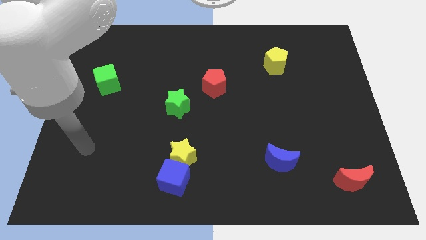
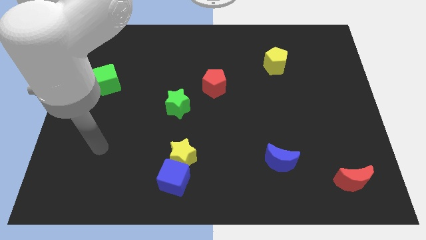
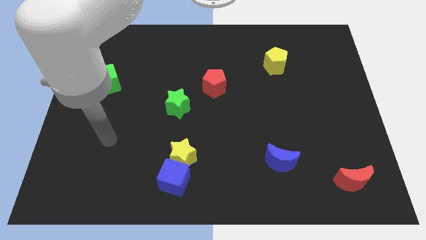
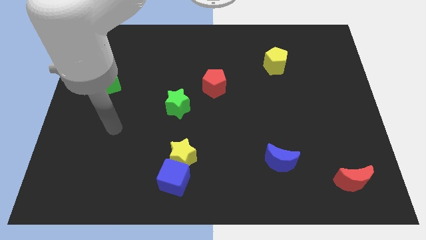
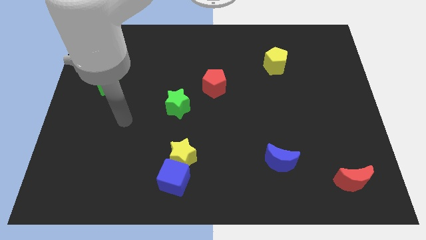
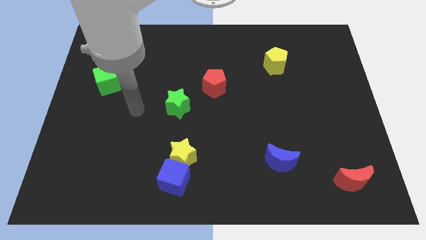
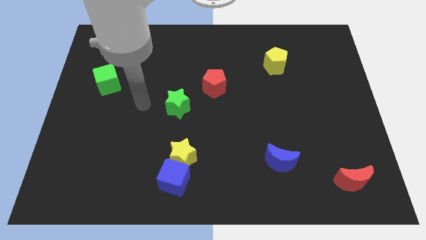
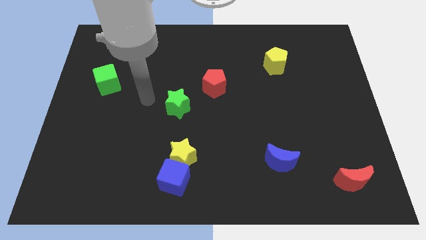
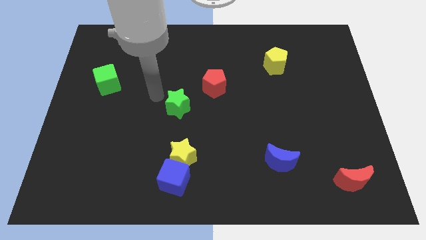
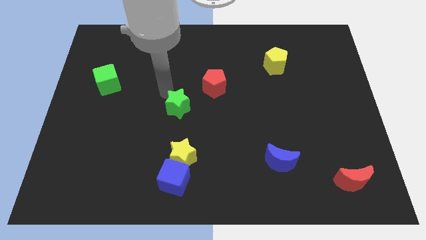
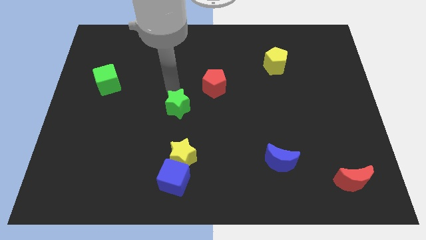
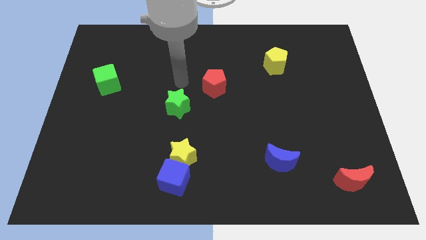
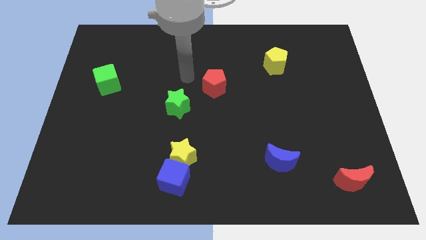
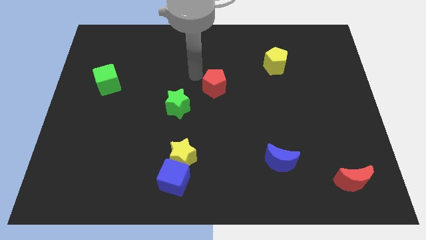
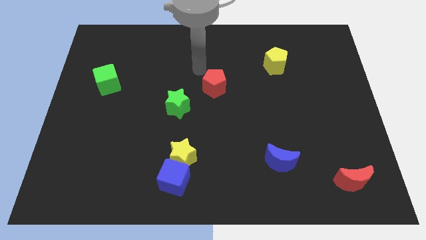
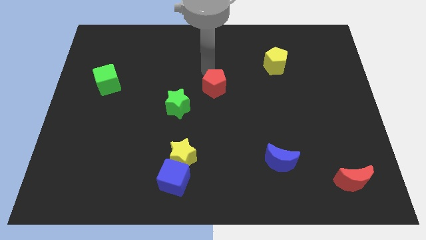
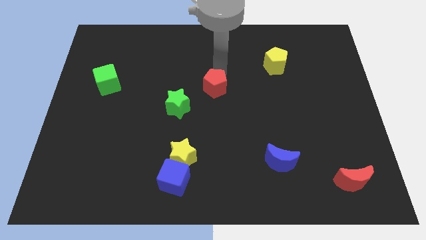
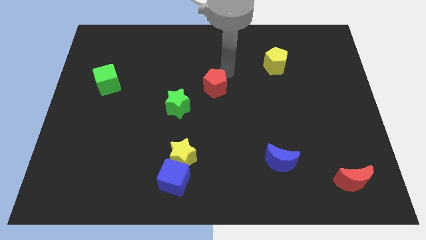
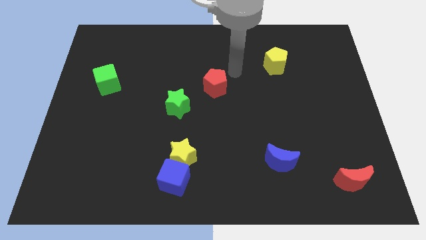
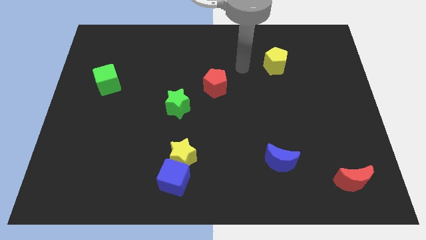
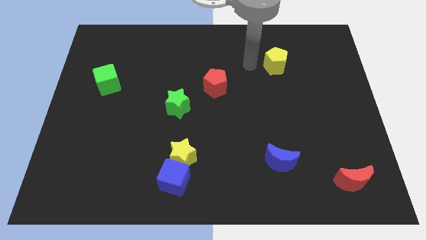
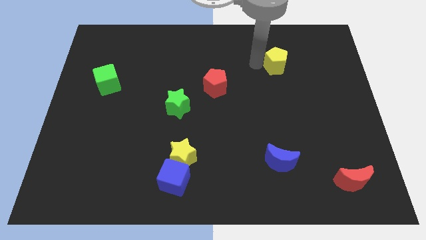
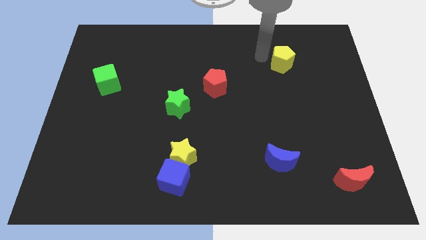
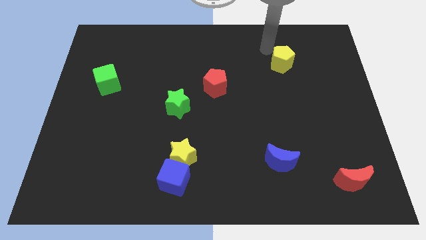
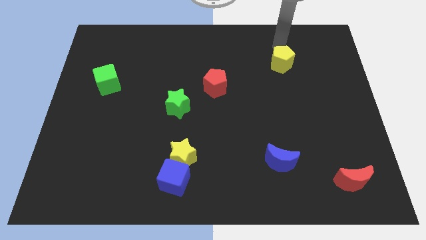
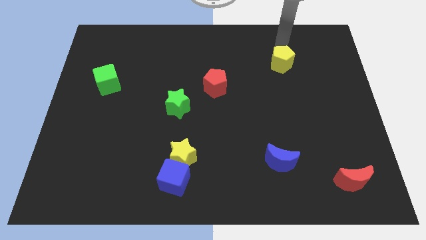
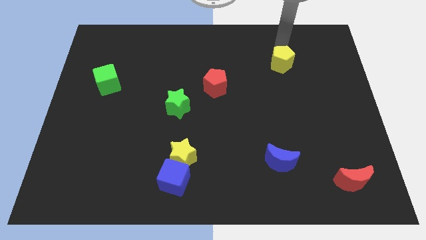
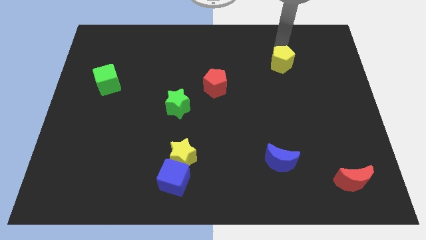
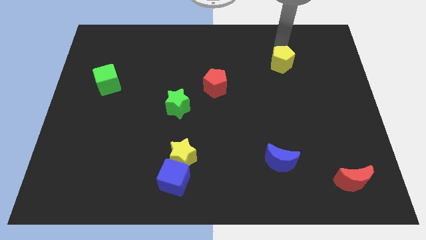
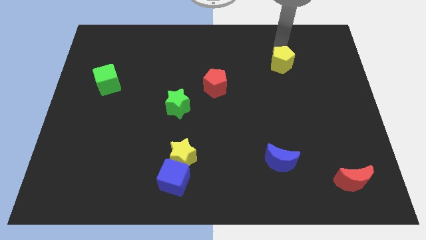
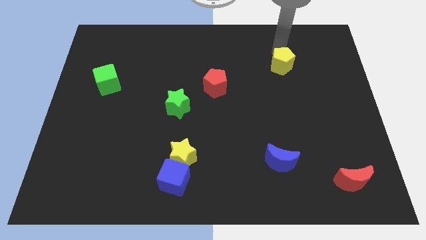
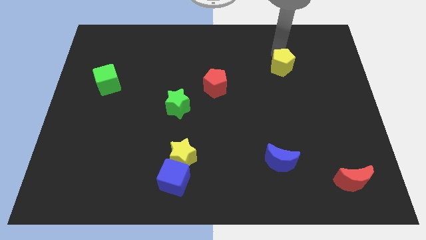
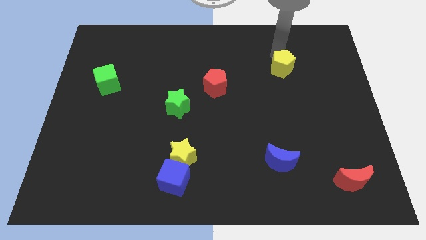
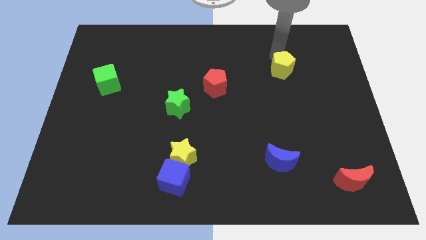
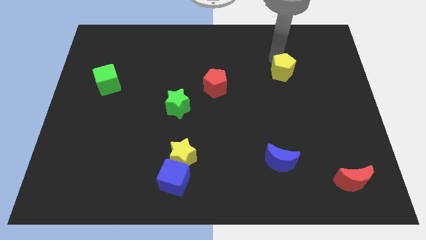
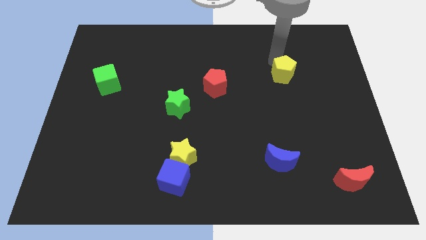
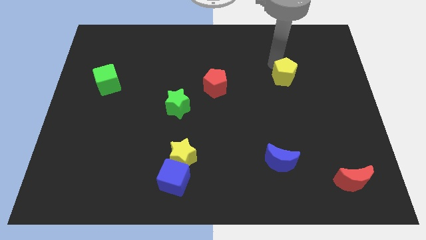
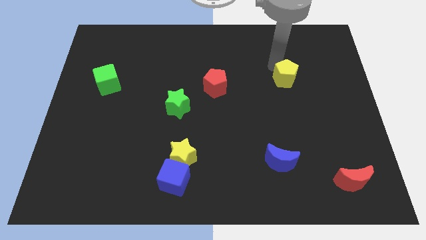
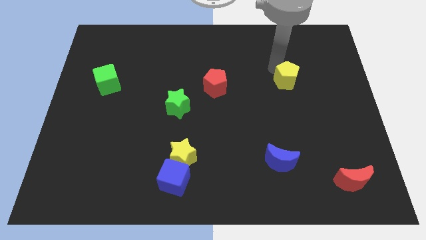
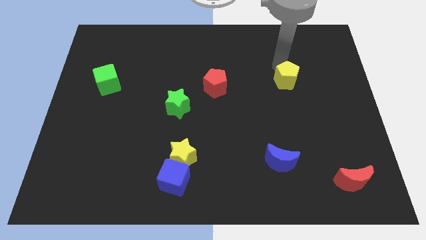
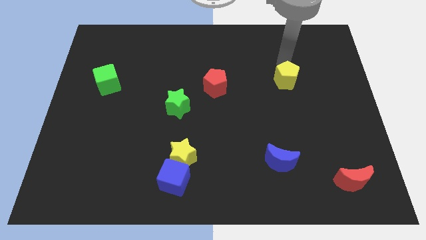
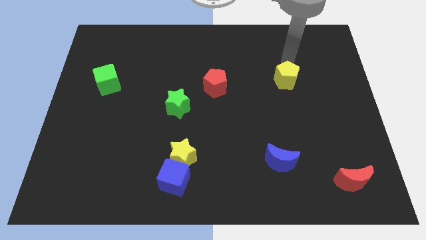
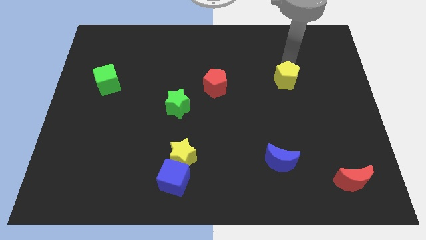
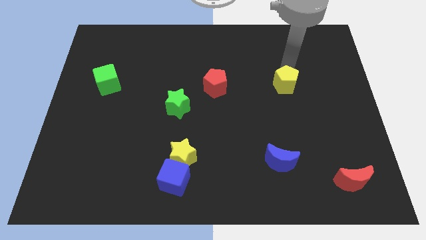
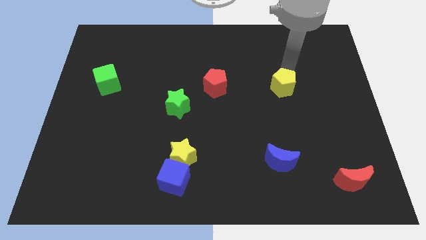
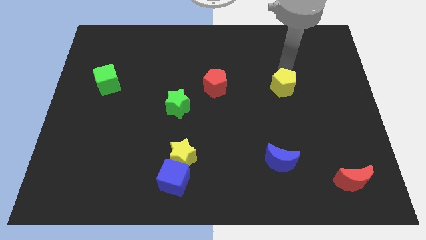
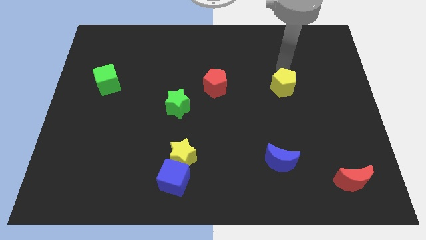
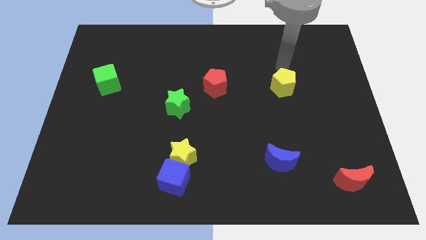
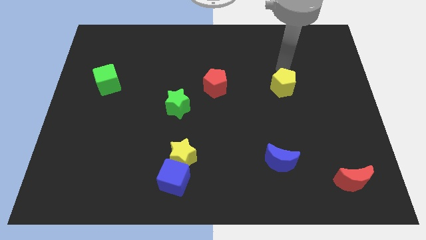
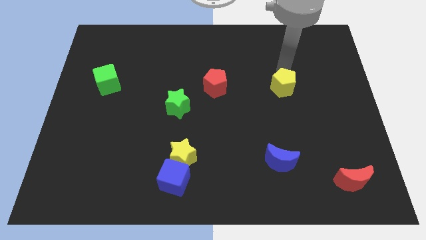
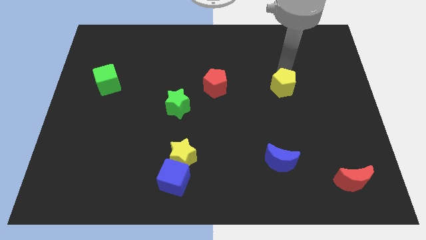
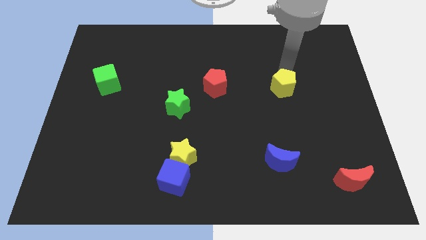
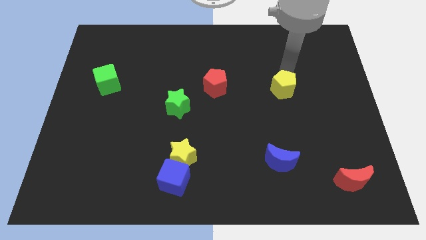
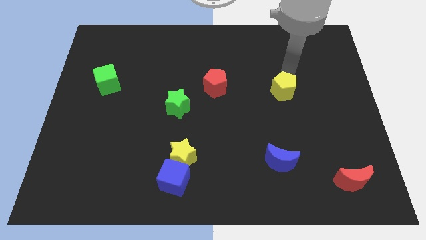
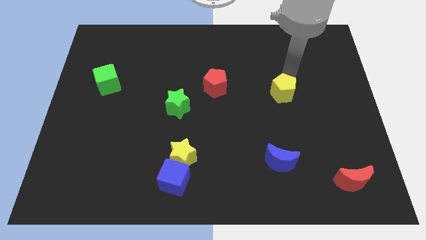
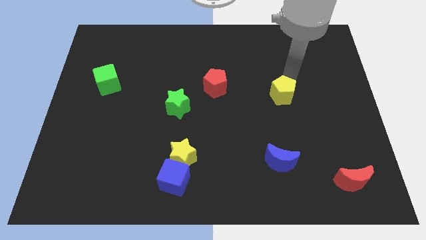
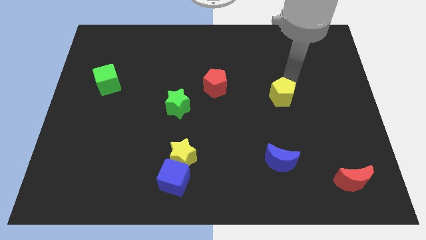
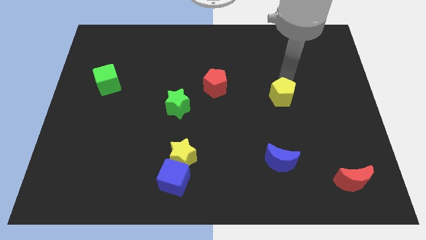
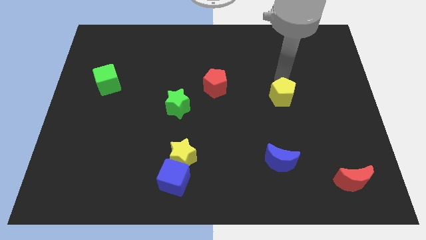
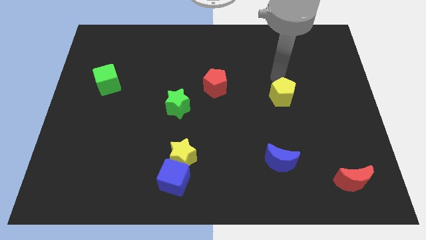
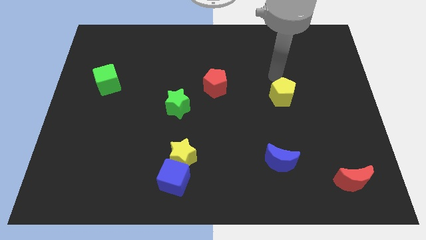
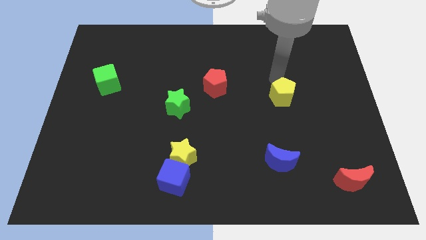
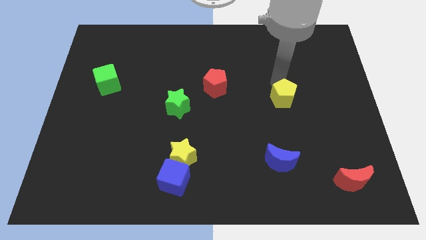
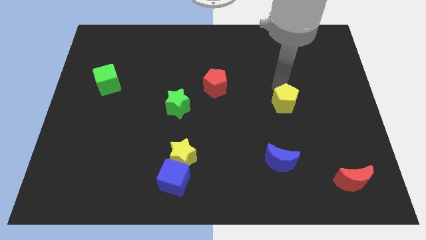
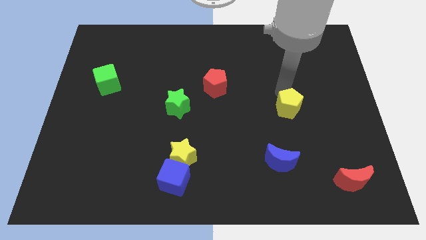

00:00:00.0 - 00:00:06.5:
push the yellow pentagon to the top side of the blue moon

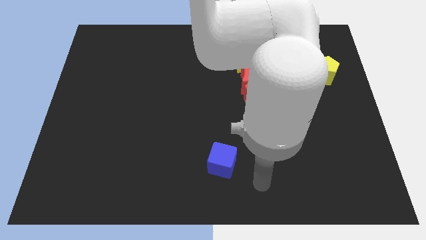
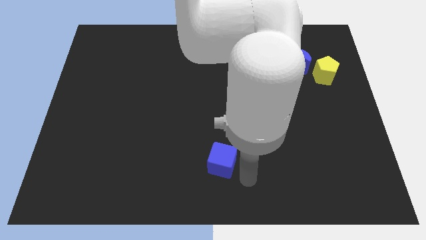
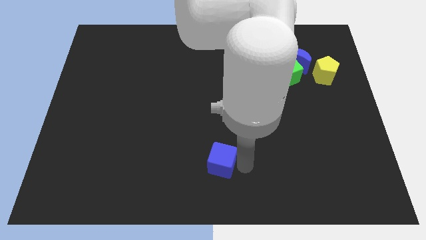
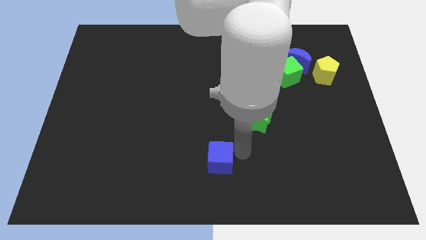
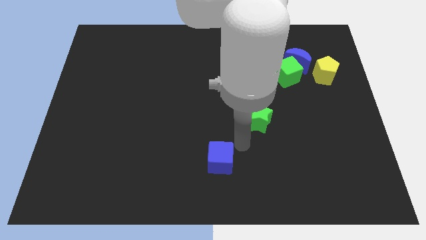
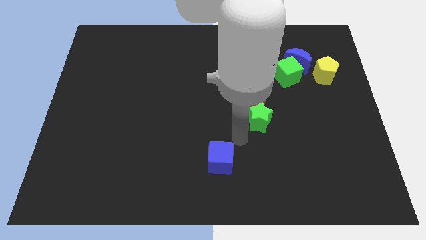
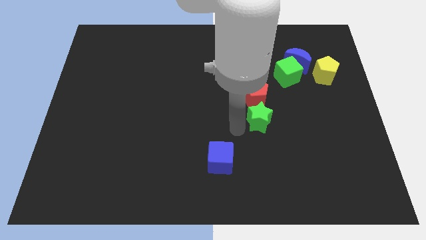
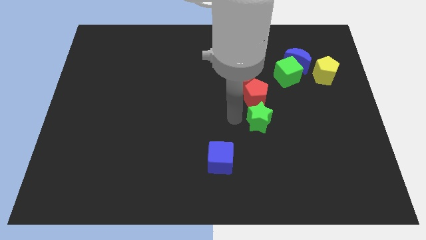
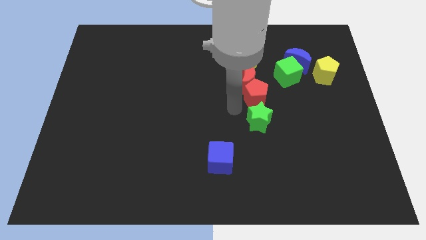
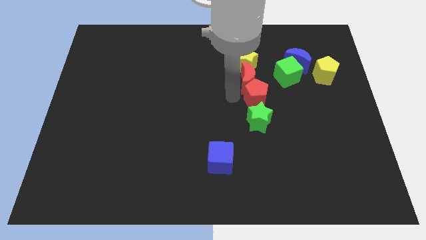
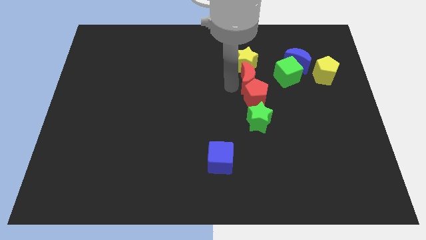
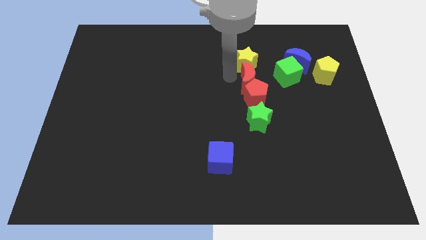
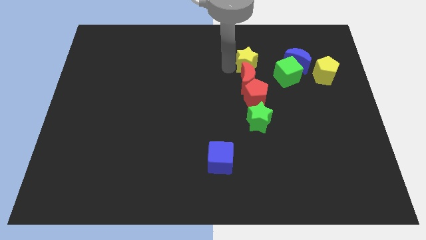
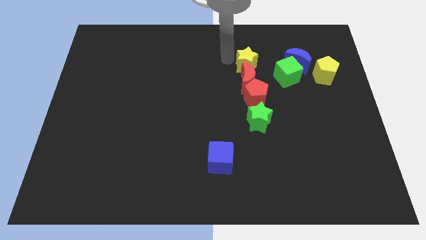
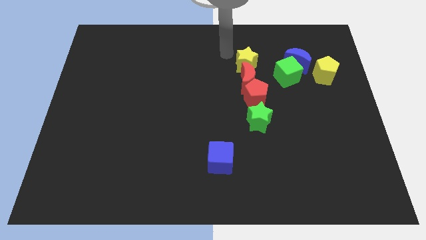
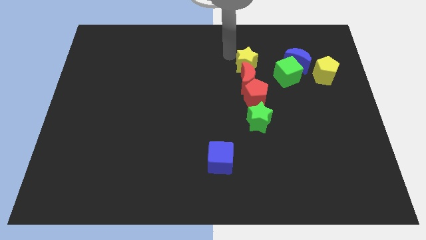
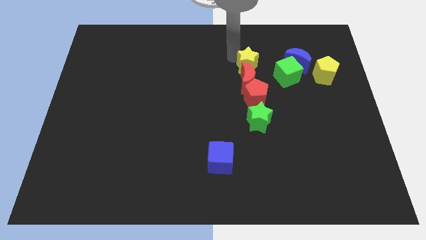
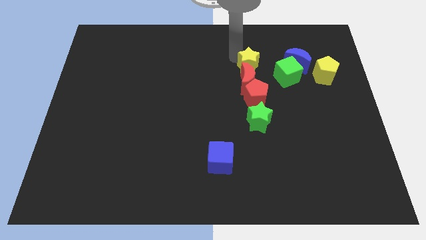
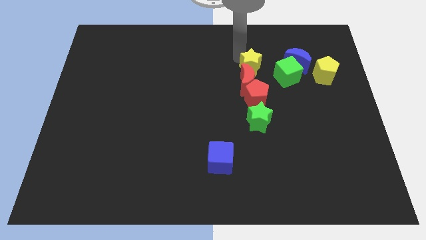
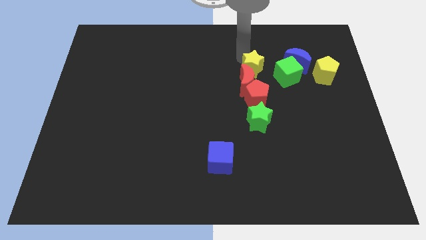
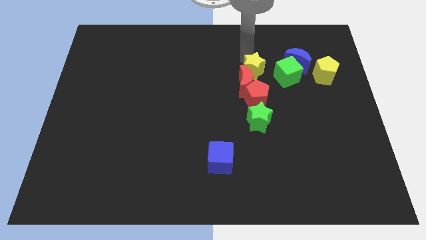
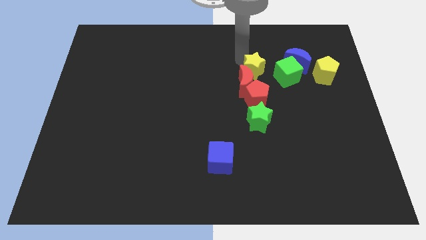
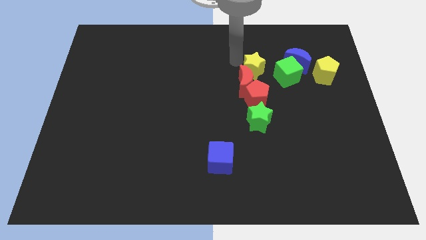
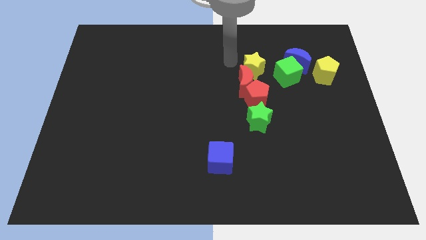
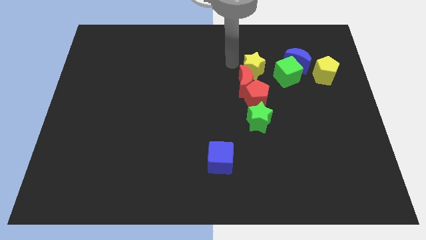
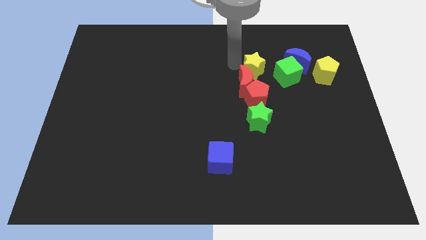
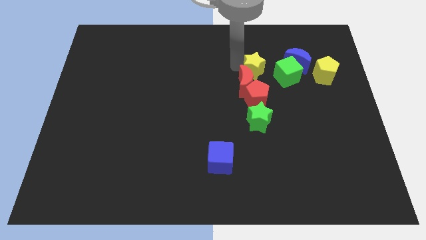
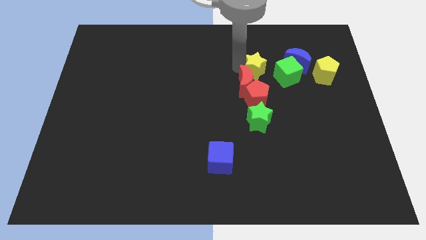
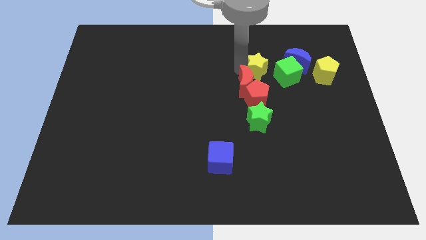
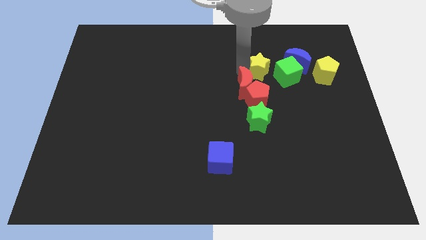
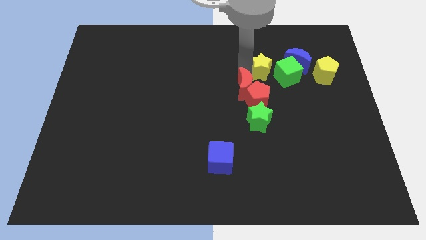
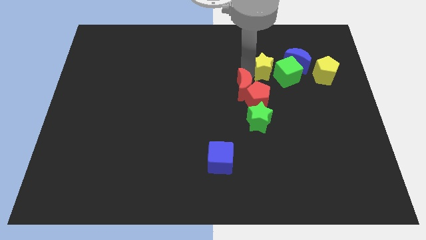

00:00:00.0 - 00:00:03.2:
push the yellow star diagonally down and to the left of the blue moon
